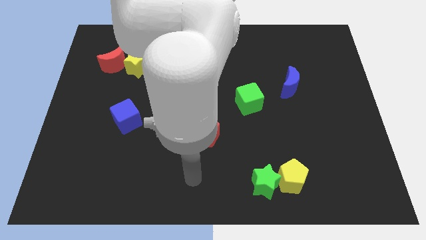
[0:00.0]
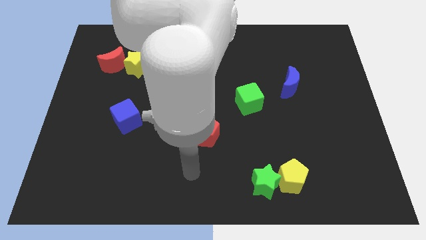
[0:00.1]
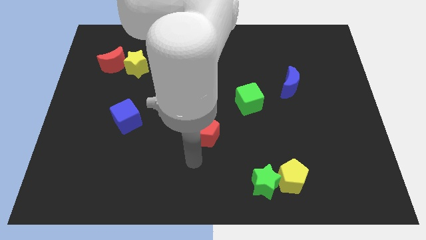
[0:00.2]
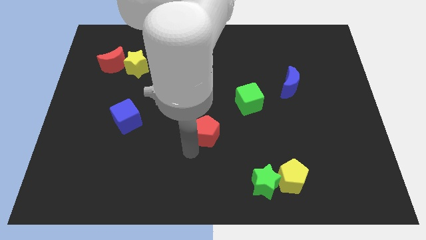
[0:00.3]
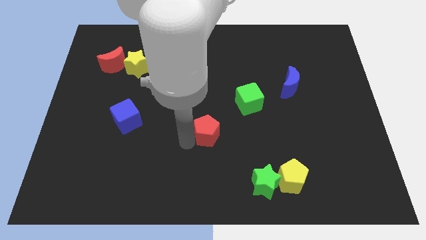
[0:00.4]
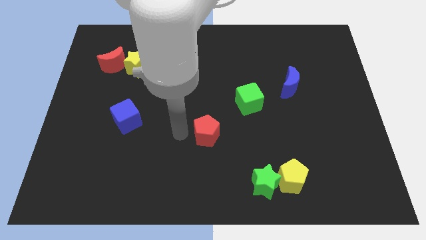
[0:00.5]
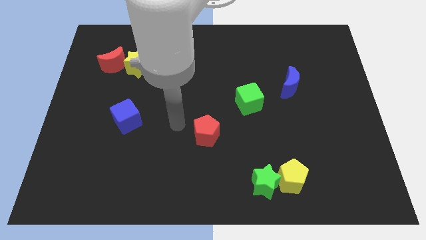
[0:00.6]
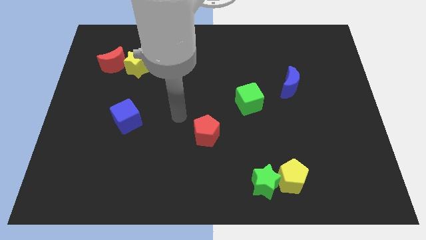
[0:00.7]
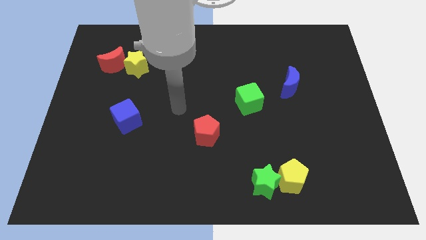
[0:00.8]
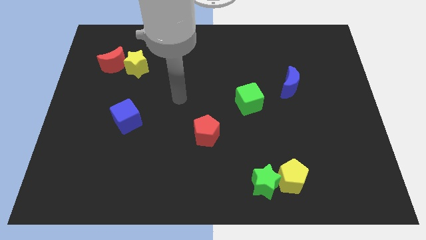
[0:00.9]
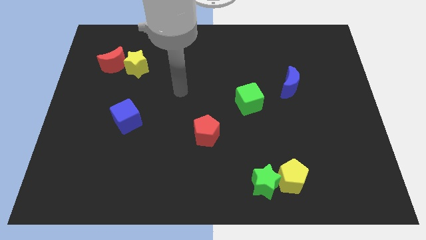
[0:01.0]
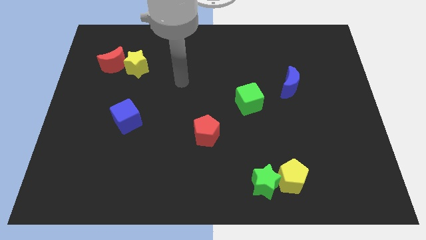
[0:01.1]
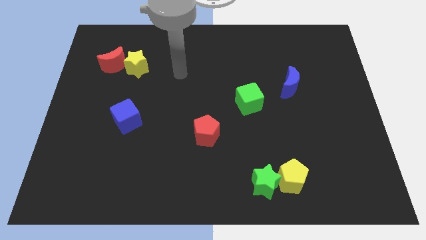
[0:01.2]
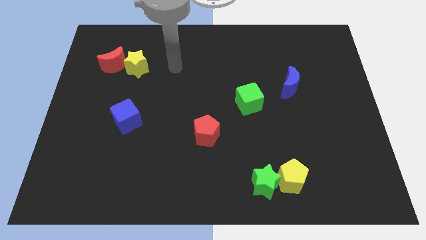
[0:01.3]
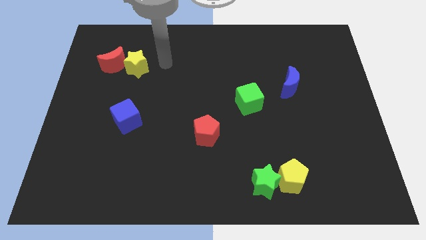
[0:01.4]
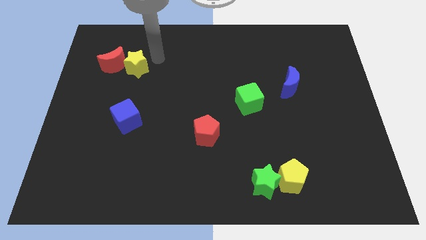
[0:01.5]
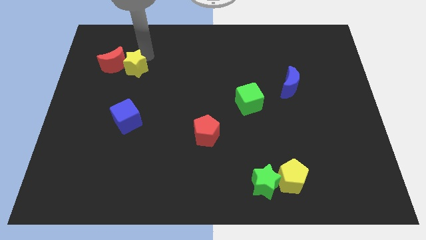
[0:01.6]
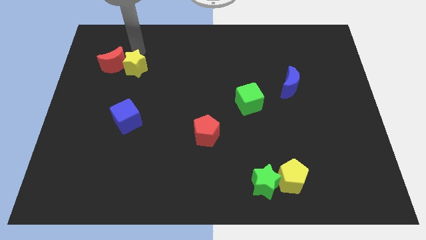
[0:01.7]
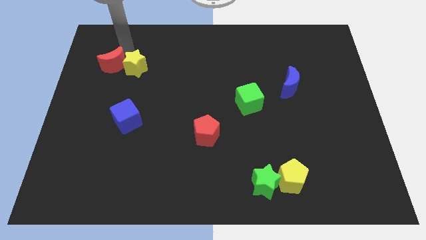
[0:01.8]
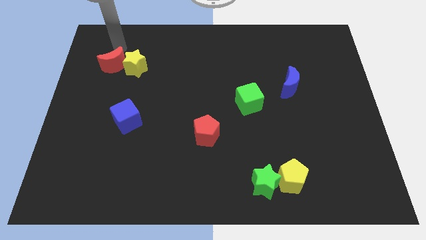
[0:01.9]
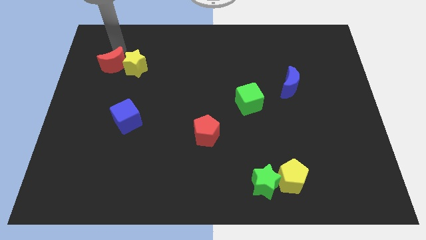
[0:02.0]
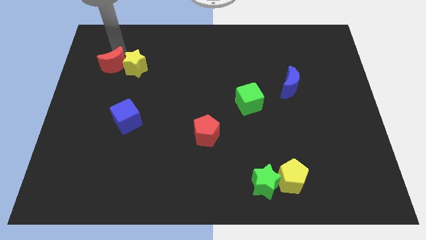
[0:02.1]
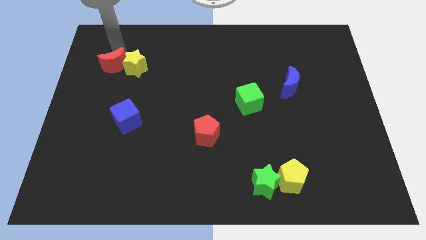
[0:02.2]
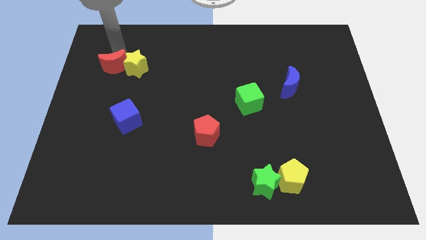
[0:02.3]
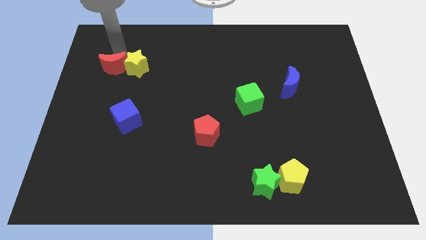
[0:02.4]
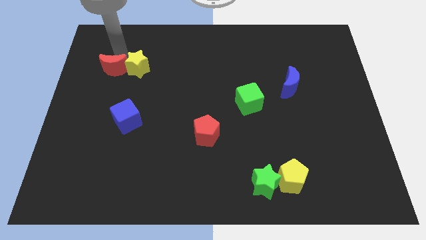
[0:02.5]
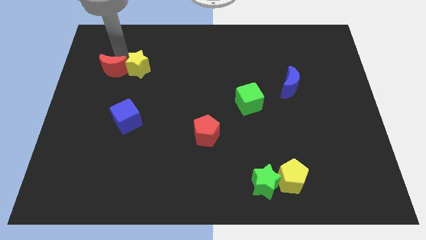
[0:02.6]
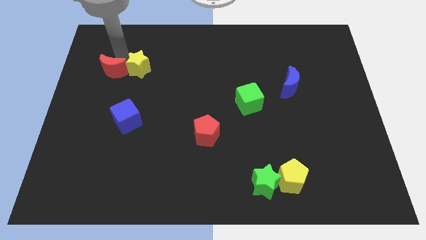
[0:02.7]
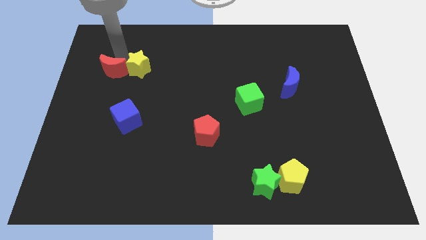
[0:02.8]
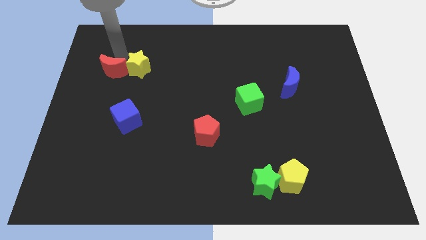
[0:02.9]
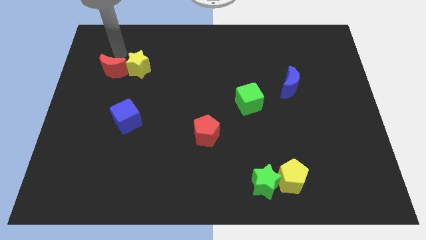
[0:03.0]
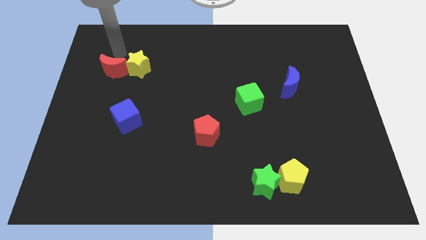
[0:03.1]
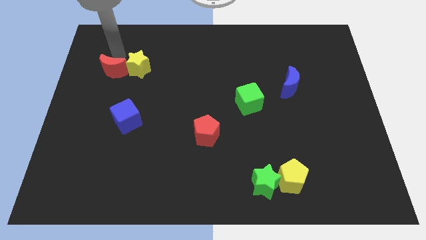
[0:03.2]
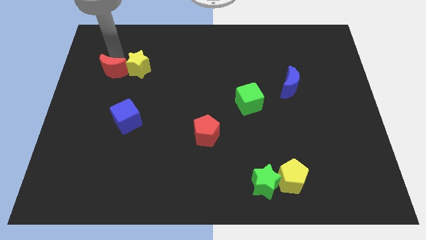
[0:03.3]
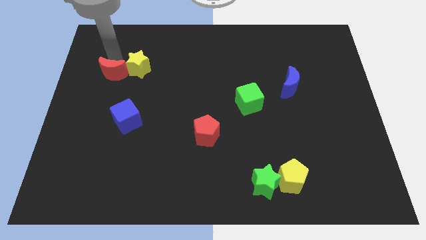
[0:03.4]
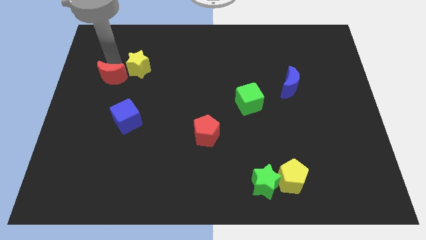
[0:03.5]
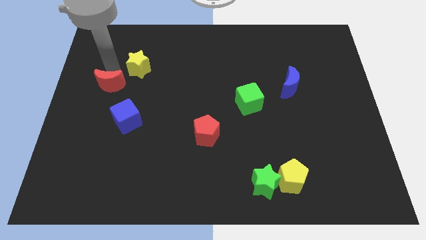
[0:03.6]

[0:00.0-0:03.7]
slightly move the red moon down

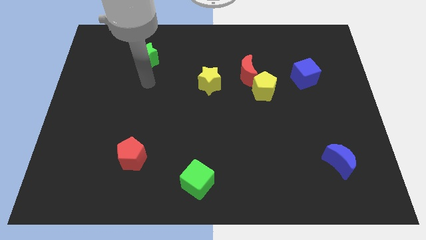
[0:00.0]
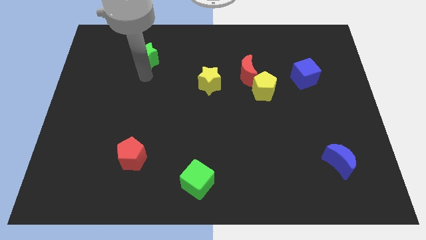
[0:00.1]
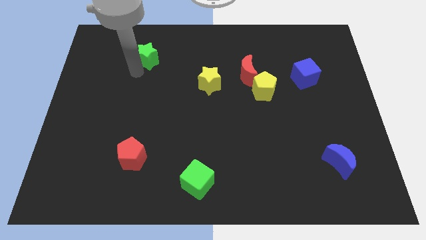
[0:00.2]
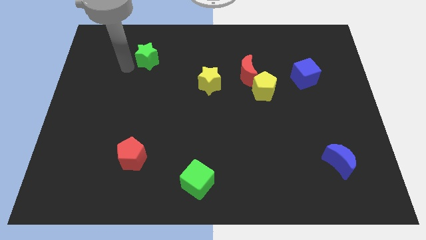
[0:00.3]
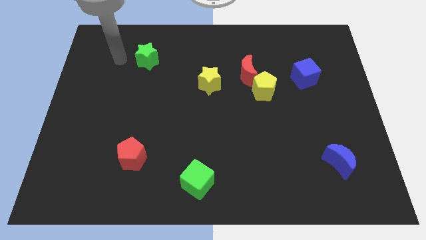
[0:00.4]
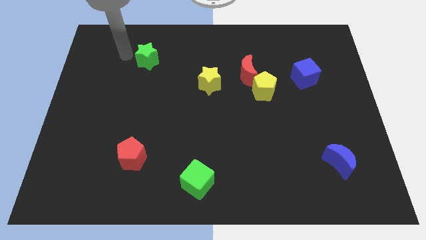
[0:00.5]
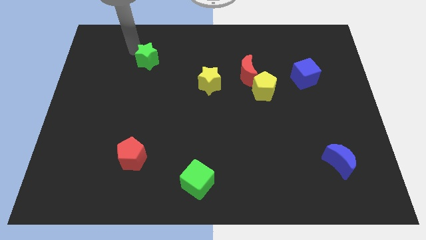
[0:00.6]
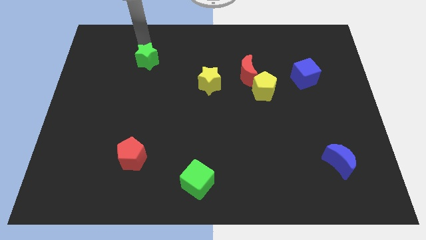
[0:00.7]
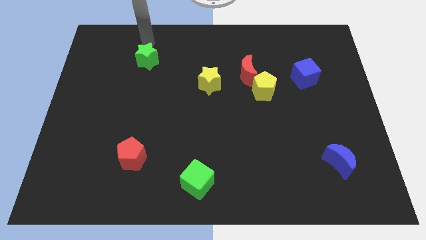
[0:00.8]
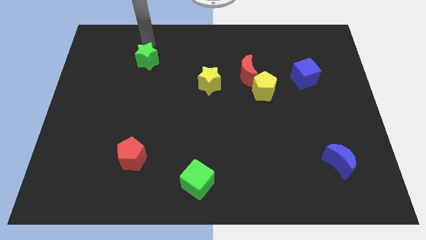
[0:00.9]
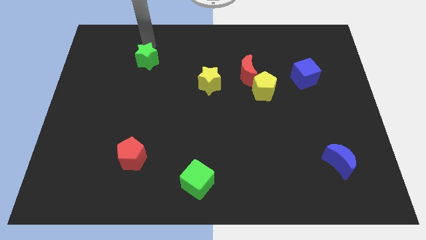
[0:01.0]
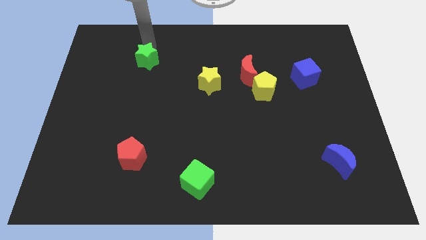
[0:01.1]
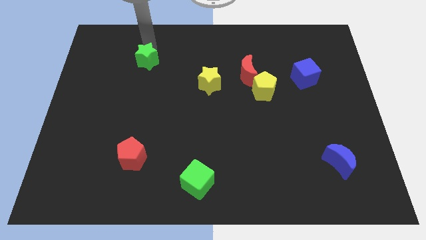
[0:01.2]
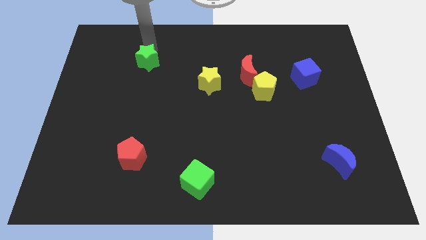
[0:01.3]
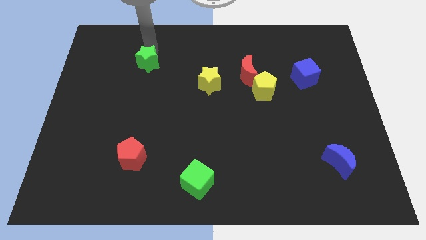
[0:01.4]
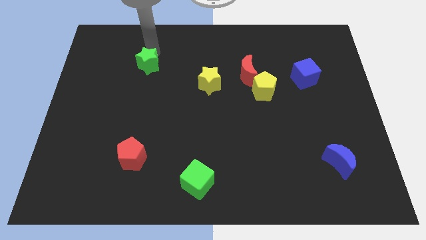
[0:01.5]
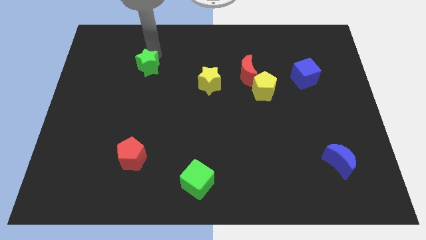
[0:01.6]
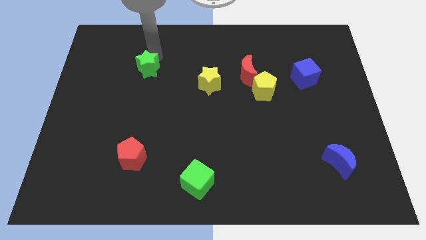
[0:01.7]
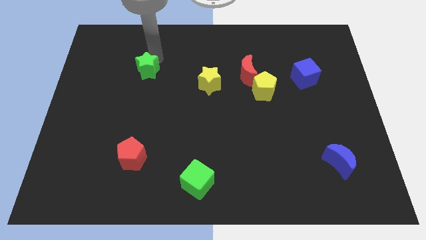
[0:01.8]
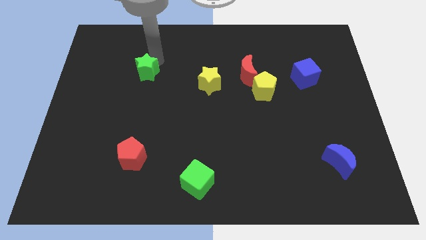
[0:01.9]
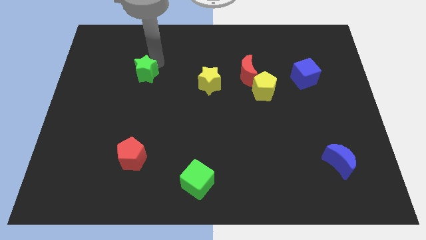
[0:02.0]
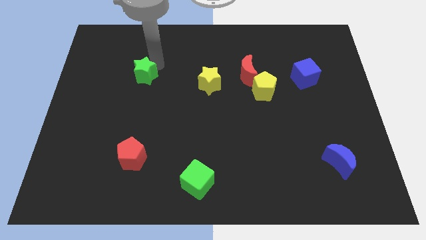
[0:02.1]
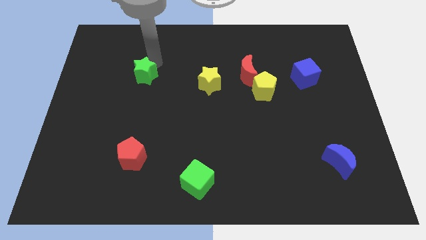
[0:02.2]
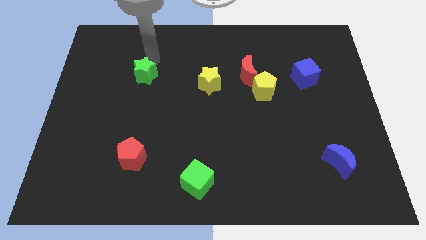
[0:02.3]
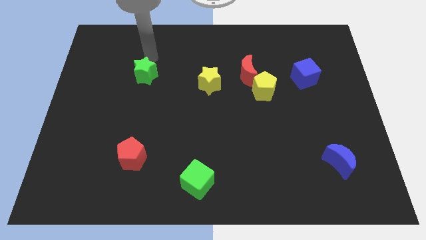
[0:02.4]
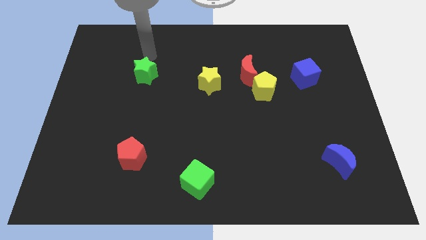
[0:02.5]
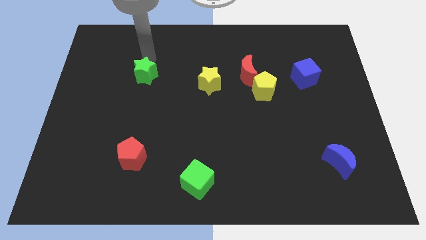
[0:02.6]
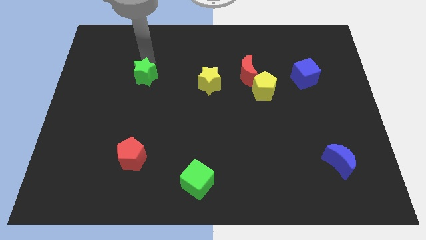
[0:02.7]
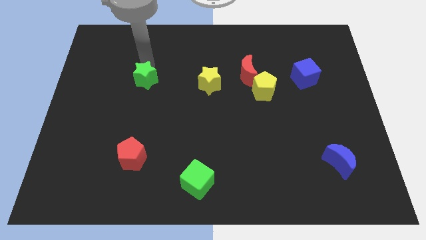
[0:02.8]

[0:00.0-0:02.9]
slide the green star downwards a bit

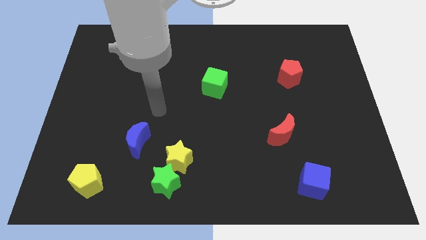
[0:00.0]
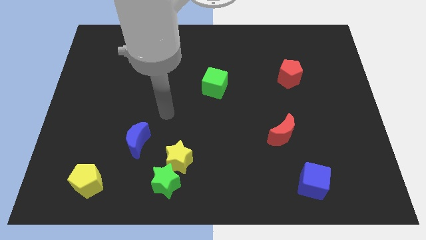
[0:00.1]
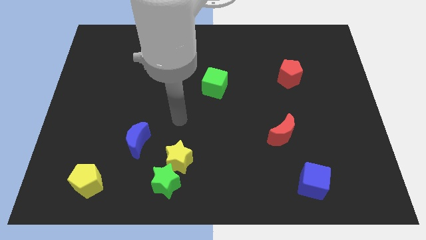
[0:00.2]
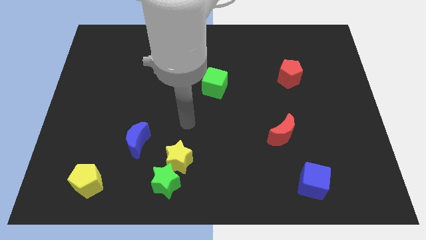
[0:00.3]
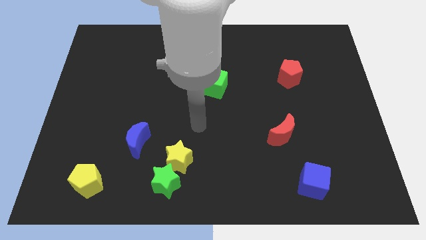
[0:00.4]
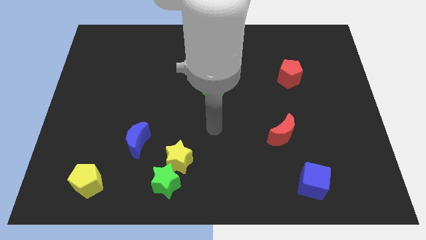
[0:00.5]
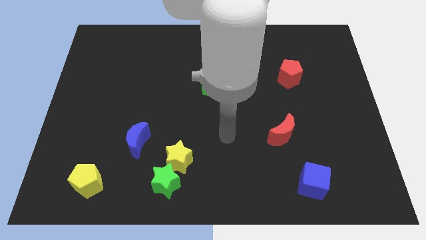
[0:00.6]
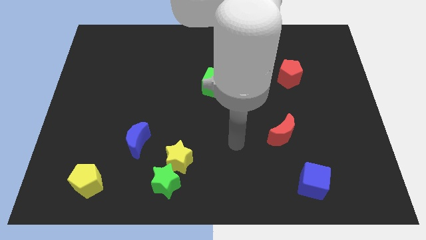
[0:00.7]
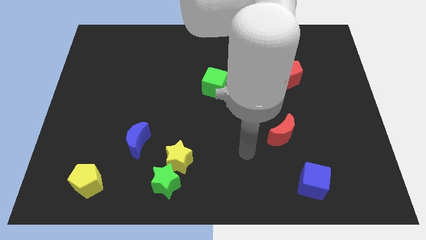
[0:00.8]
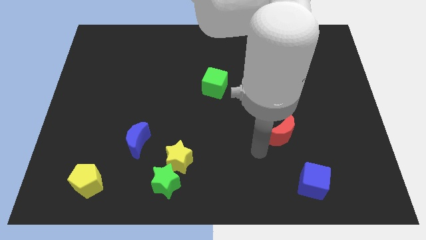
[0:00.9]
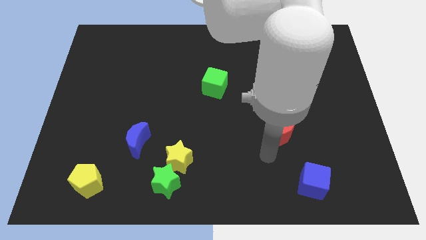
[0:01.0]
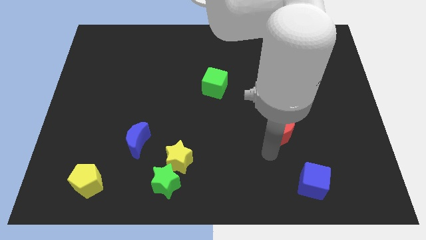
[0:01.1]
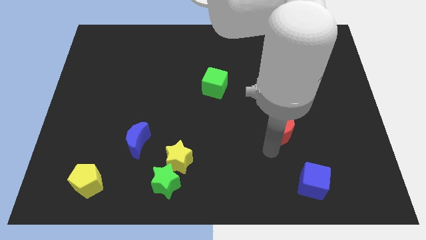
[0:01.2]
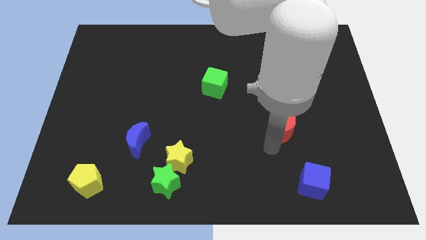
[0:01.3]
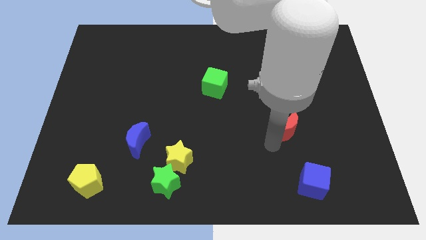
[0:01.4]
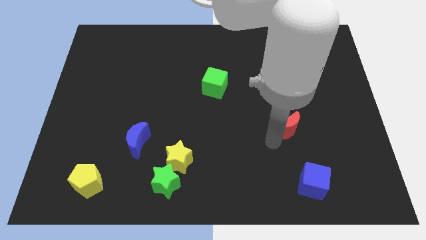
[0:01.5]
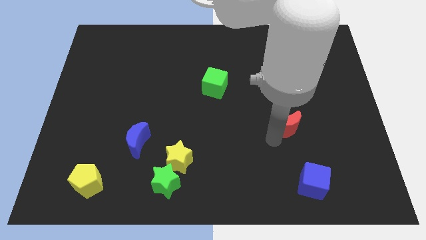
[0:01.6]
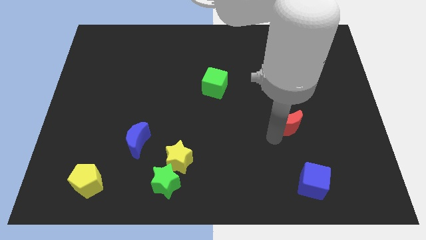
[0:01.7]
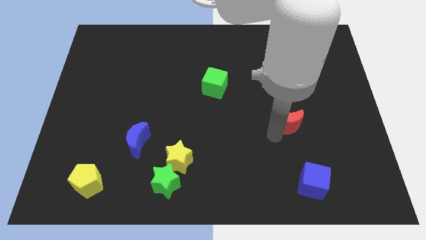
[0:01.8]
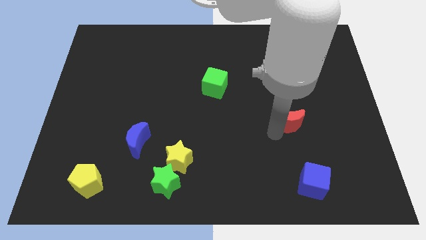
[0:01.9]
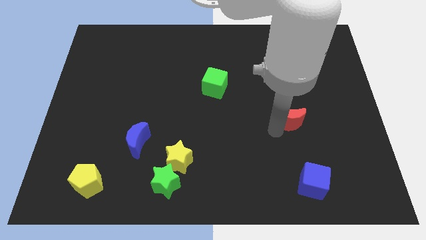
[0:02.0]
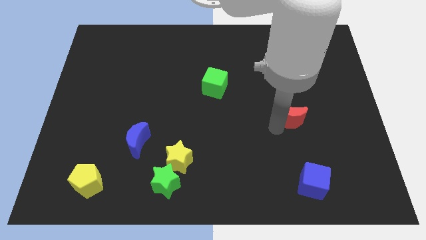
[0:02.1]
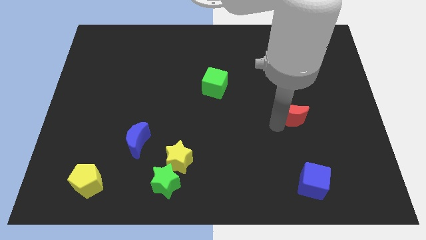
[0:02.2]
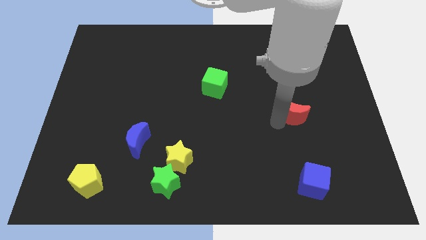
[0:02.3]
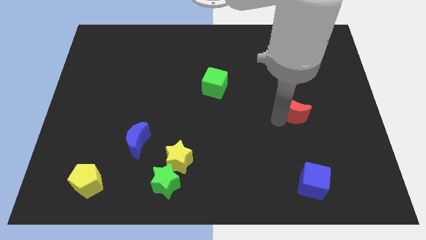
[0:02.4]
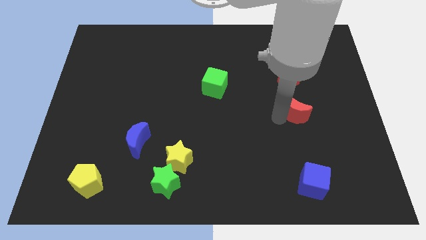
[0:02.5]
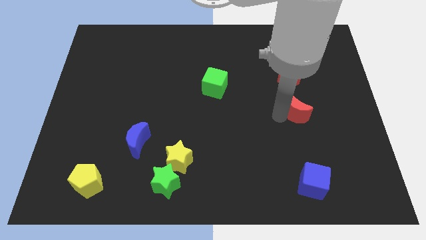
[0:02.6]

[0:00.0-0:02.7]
slightly move the red moon diagonally upwards and right
